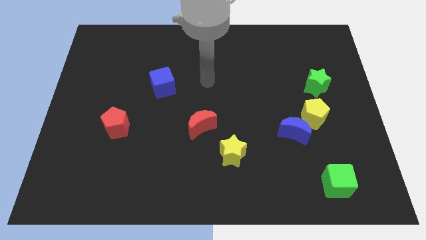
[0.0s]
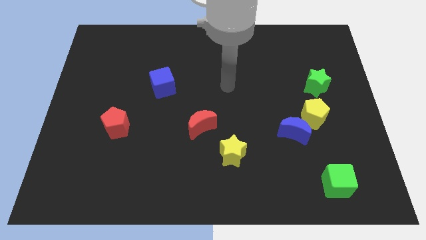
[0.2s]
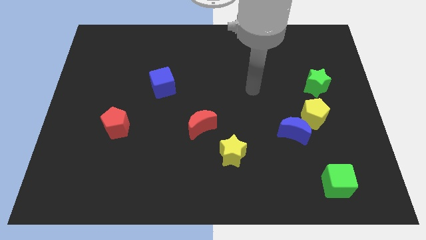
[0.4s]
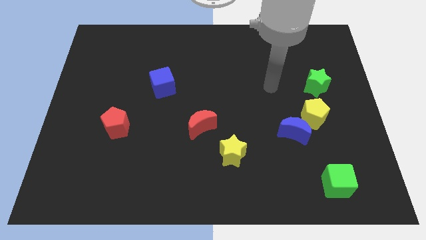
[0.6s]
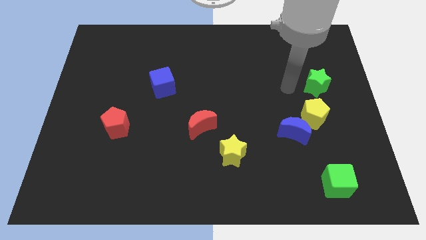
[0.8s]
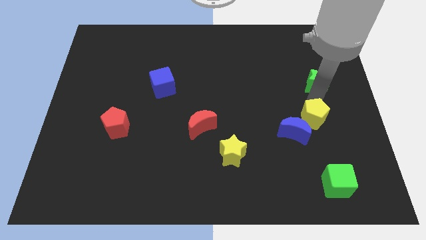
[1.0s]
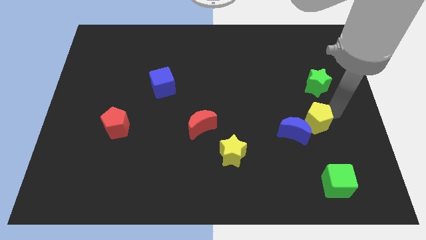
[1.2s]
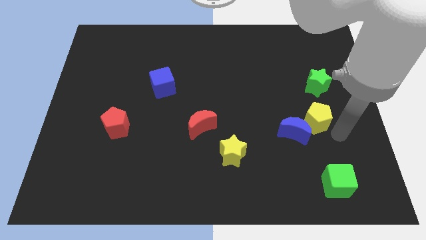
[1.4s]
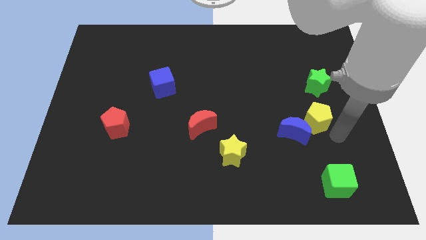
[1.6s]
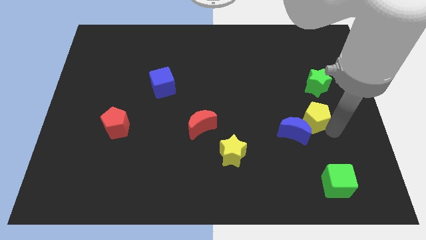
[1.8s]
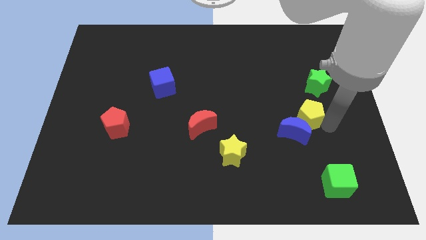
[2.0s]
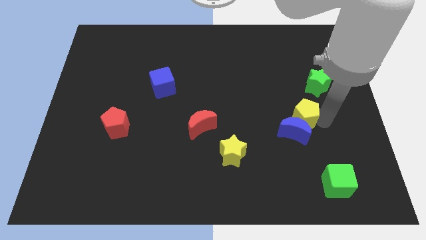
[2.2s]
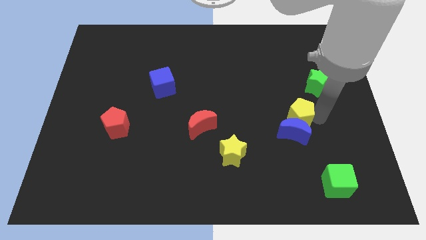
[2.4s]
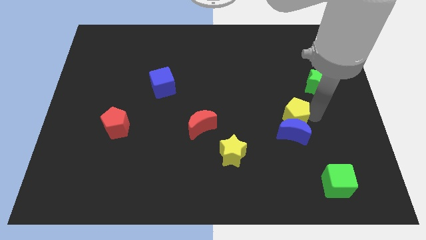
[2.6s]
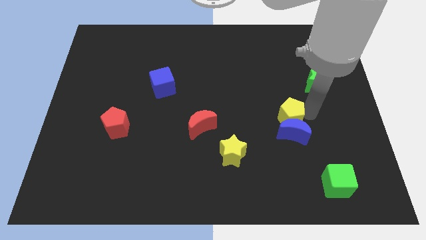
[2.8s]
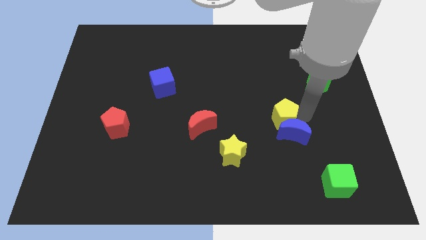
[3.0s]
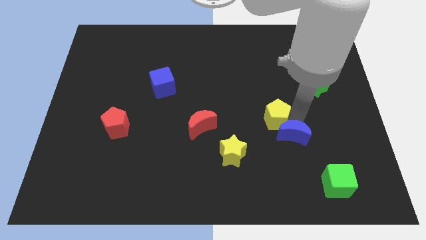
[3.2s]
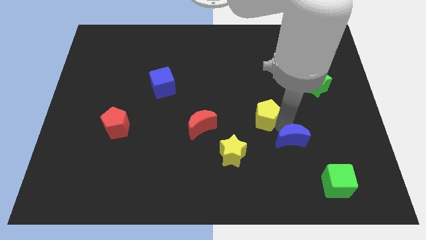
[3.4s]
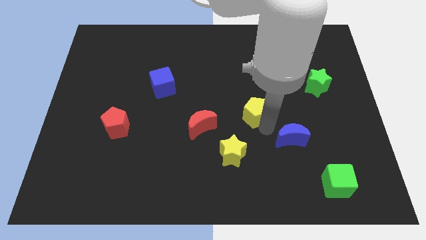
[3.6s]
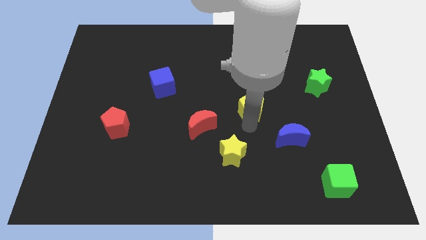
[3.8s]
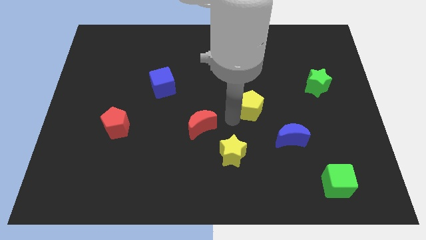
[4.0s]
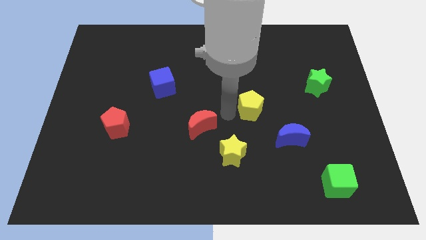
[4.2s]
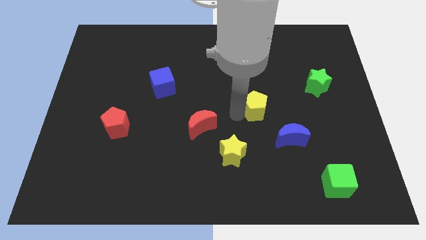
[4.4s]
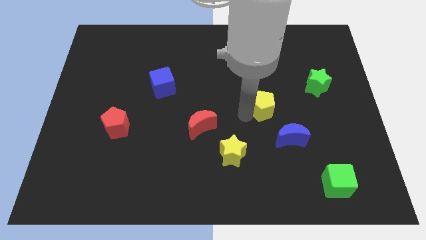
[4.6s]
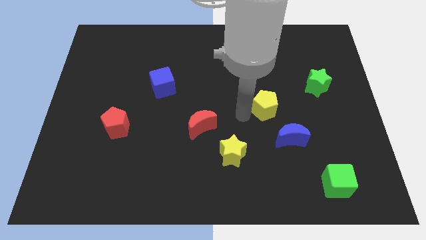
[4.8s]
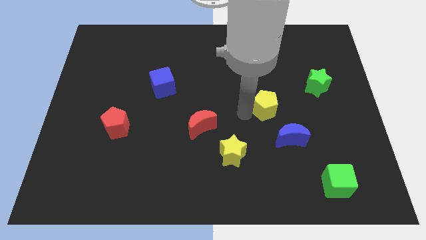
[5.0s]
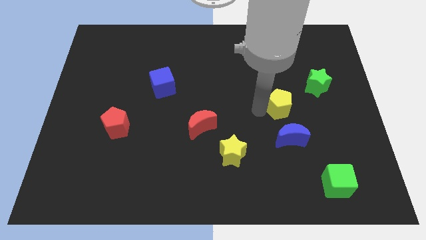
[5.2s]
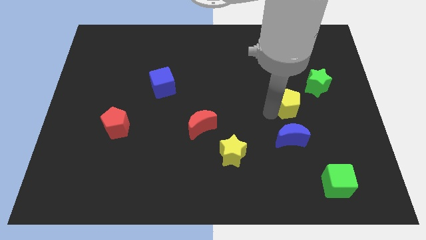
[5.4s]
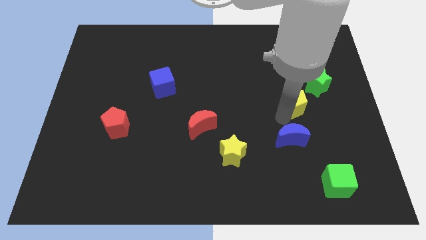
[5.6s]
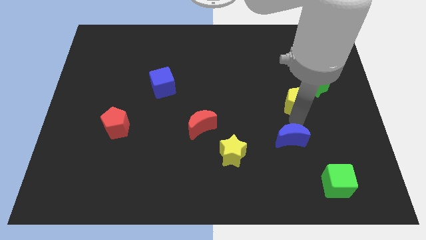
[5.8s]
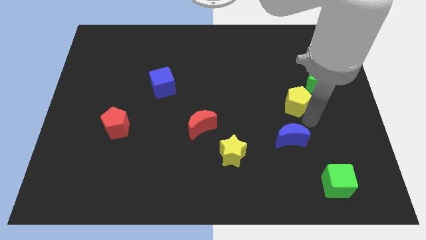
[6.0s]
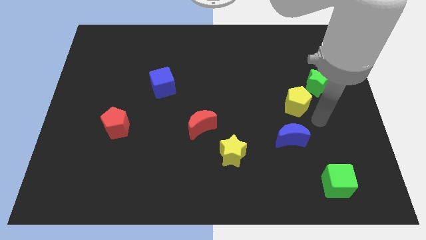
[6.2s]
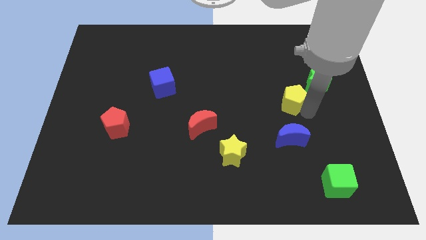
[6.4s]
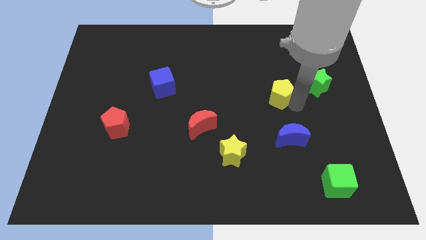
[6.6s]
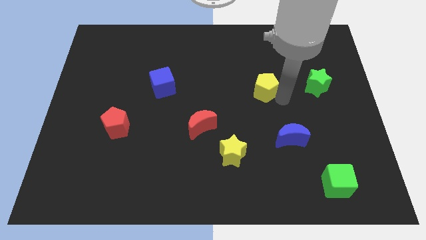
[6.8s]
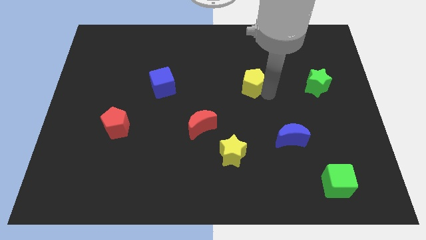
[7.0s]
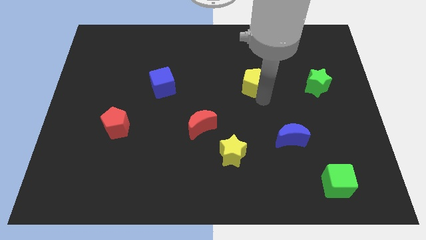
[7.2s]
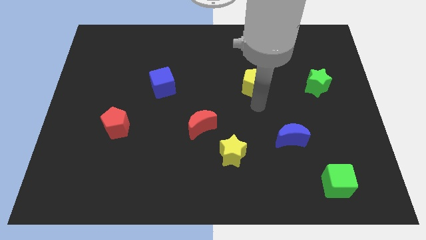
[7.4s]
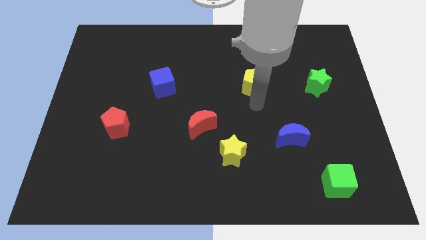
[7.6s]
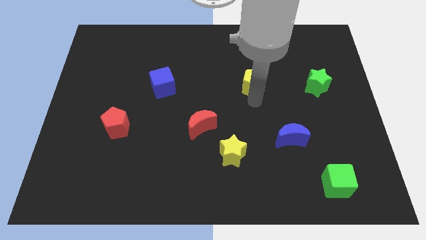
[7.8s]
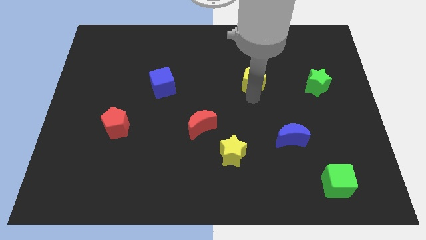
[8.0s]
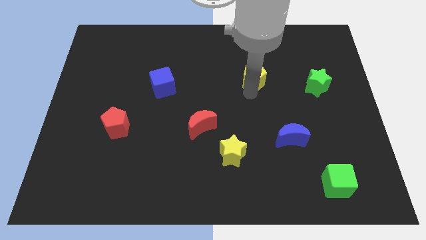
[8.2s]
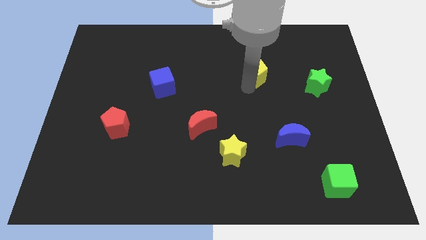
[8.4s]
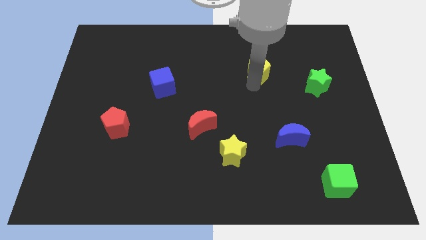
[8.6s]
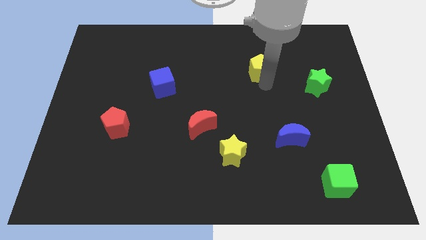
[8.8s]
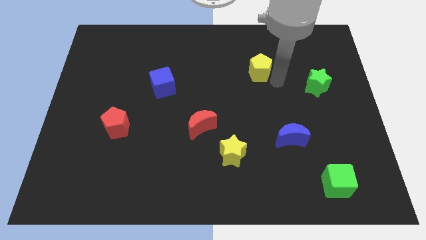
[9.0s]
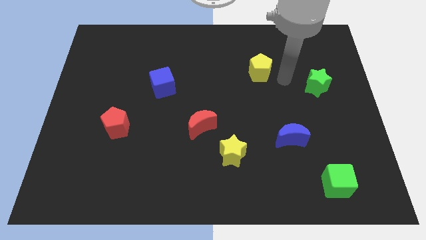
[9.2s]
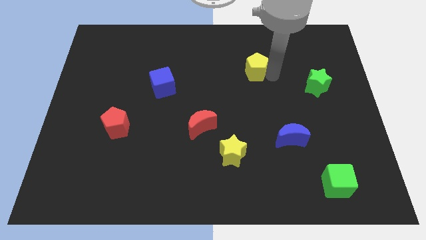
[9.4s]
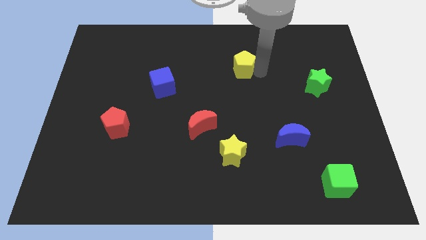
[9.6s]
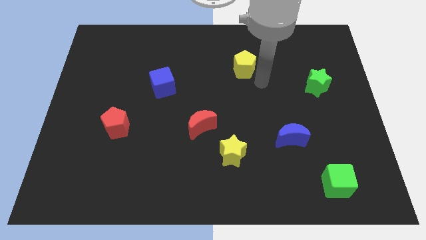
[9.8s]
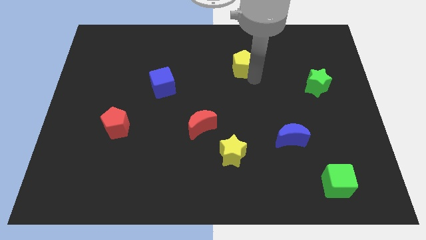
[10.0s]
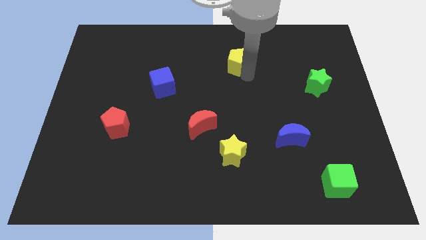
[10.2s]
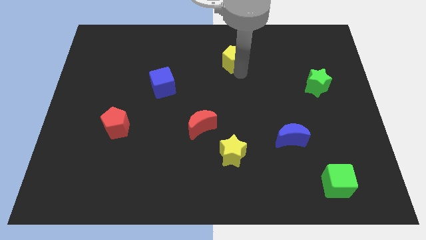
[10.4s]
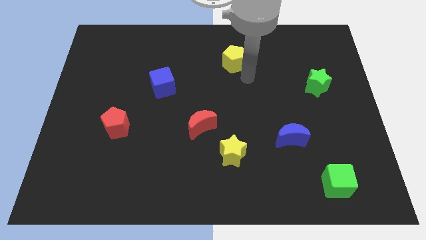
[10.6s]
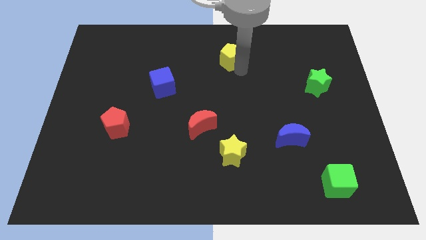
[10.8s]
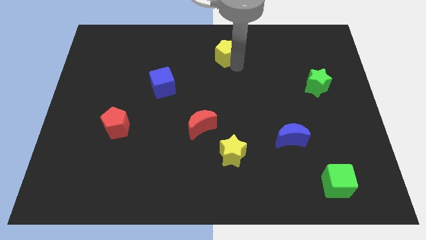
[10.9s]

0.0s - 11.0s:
put the yellow pentagon to the top side

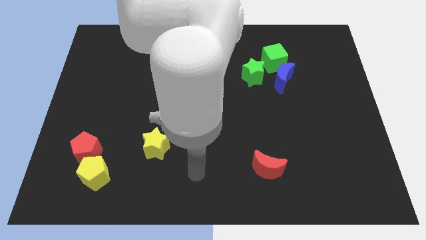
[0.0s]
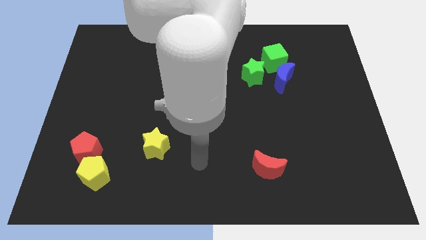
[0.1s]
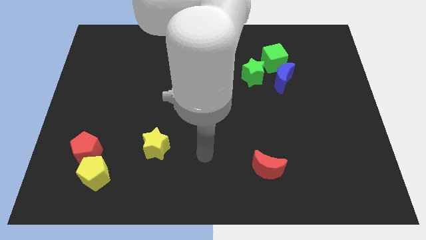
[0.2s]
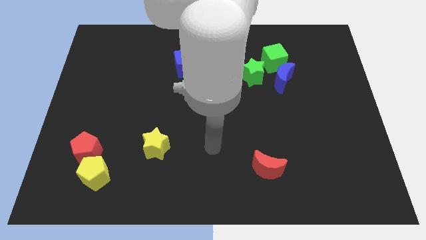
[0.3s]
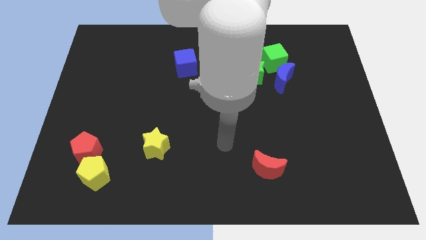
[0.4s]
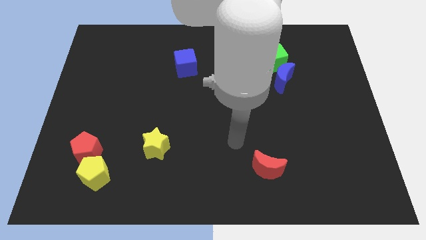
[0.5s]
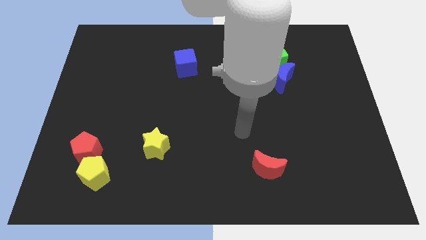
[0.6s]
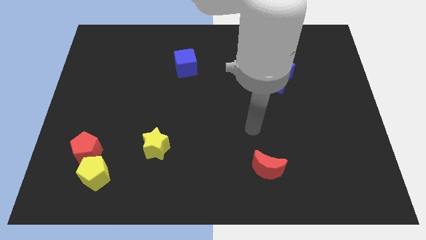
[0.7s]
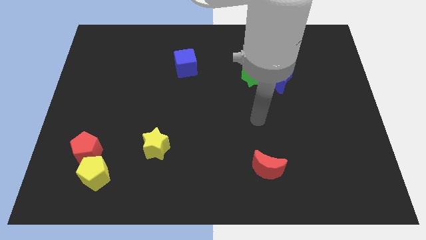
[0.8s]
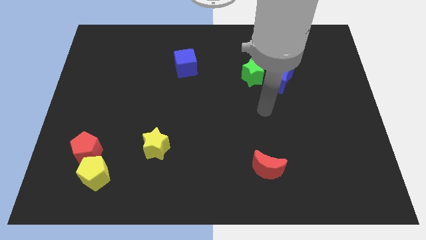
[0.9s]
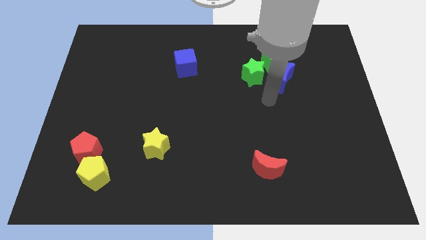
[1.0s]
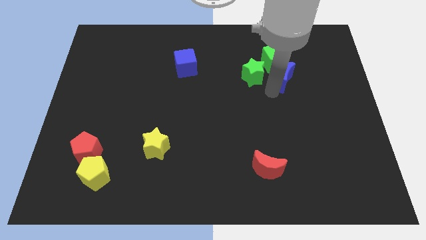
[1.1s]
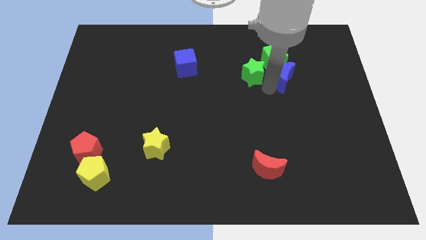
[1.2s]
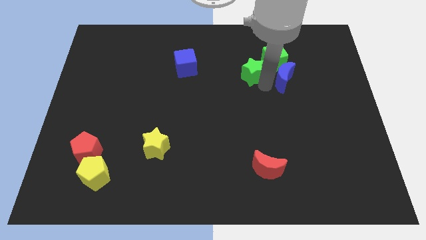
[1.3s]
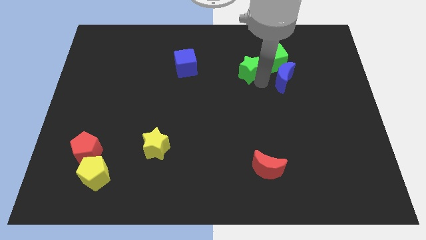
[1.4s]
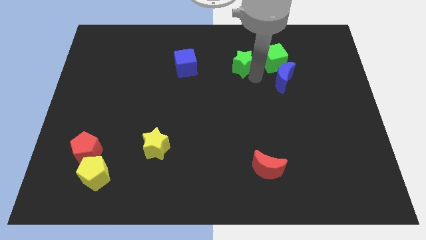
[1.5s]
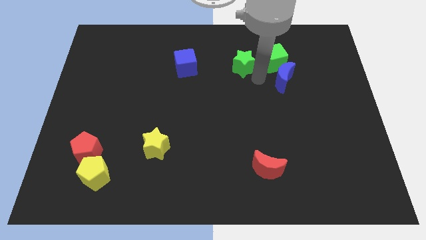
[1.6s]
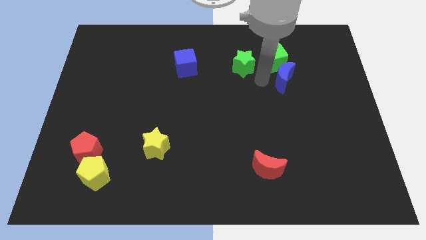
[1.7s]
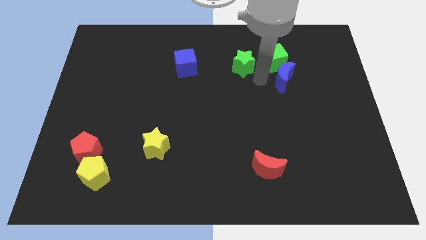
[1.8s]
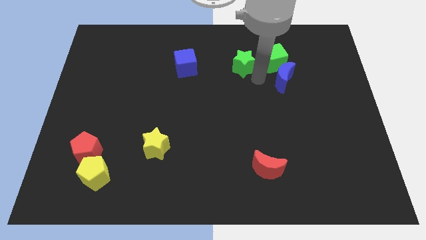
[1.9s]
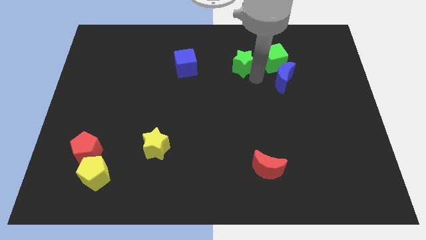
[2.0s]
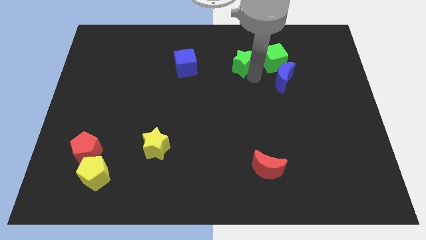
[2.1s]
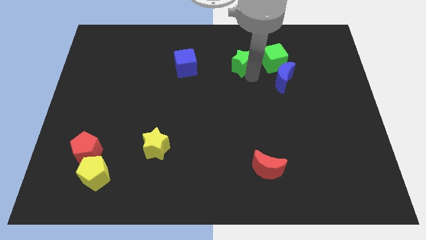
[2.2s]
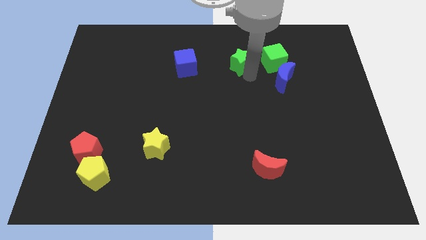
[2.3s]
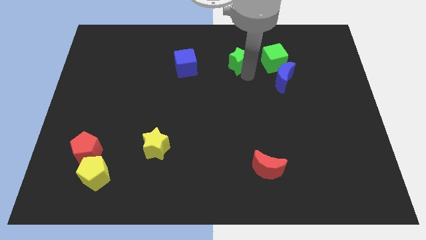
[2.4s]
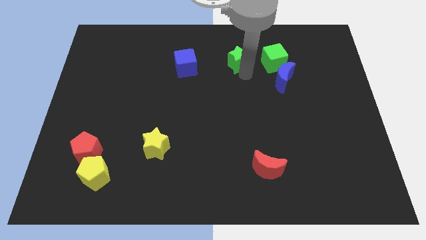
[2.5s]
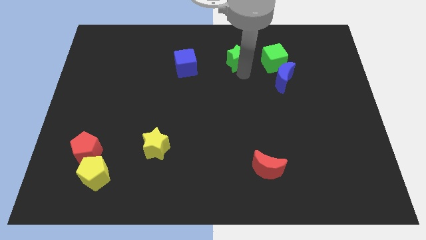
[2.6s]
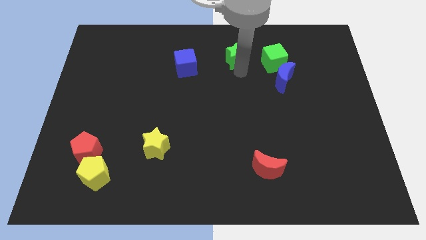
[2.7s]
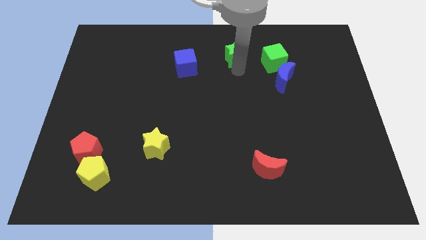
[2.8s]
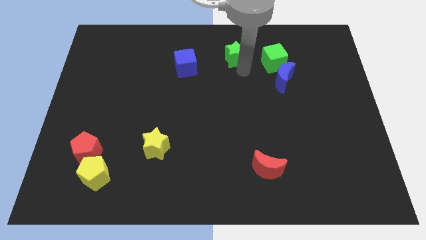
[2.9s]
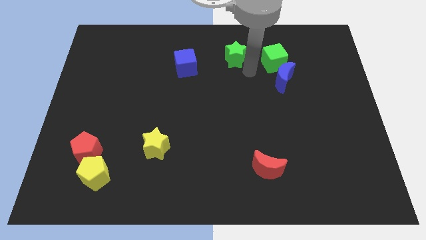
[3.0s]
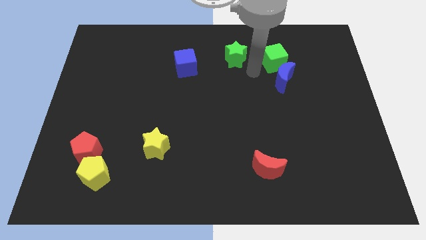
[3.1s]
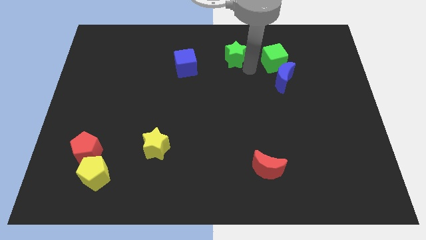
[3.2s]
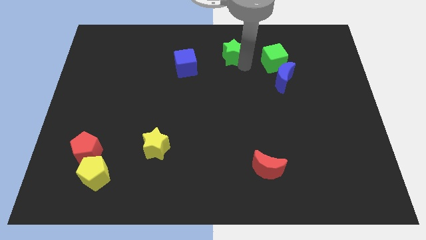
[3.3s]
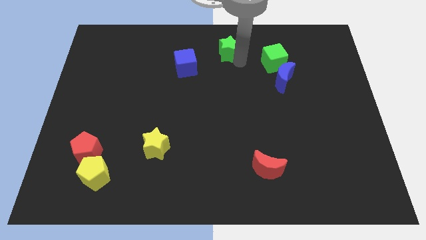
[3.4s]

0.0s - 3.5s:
slide the green star to the towards your base
